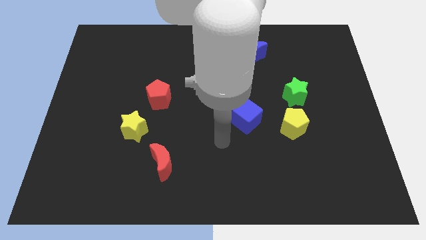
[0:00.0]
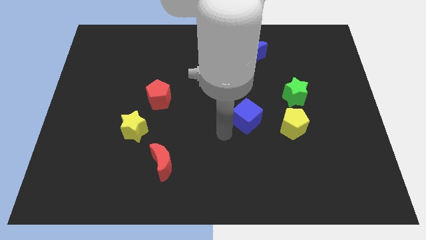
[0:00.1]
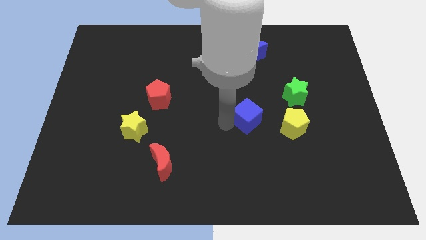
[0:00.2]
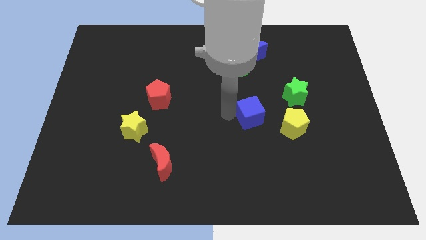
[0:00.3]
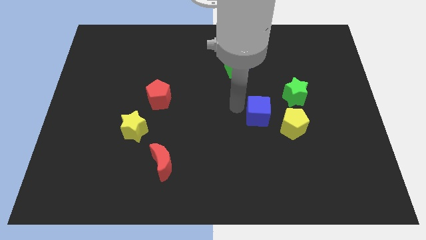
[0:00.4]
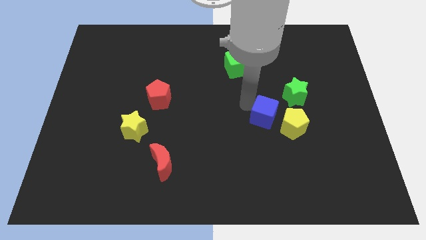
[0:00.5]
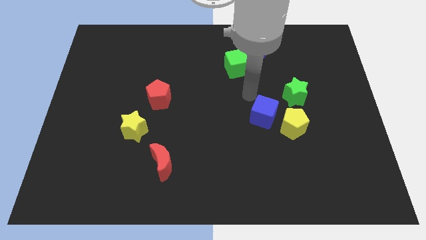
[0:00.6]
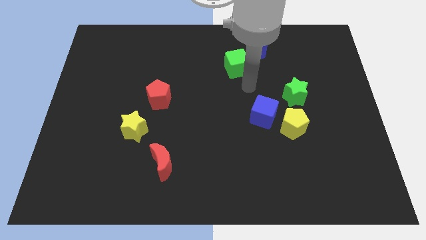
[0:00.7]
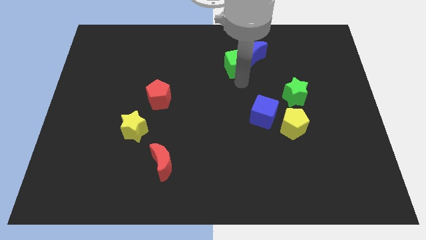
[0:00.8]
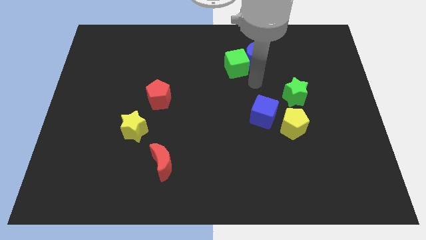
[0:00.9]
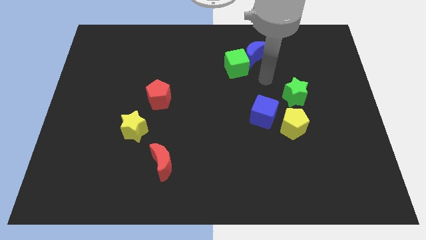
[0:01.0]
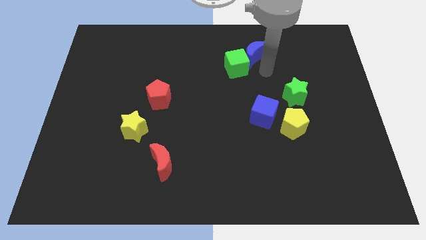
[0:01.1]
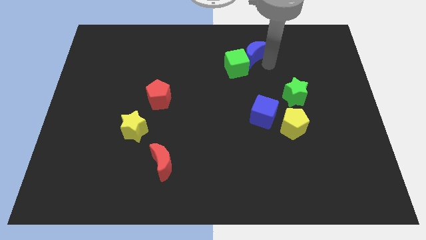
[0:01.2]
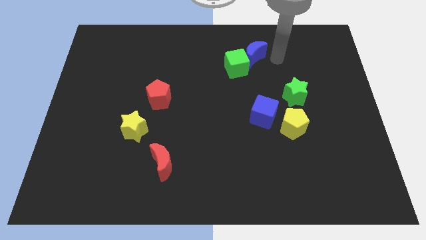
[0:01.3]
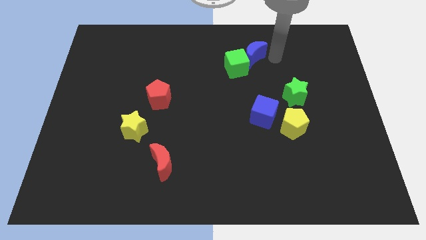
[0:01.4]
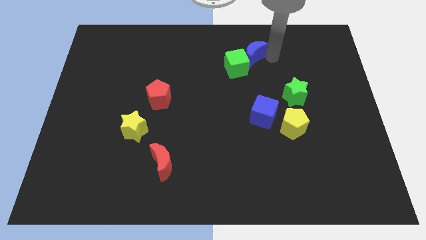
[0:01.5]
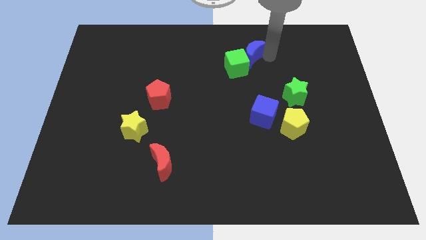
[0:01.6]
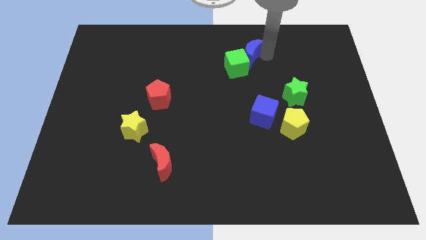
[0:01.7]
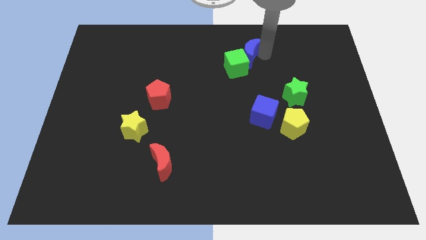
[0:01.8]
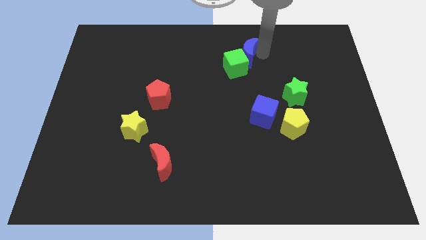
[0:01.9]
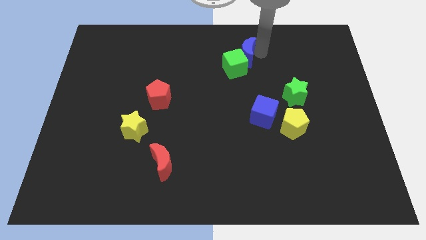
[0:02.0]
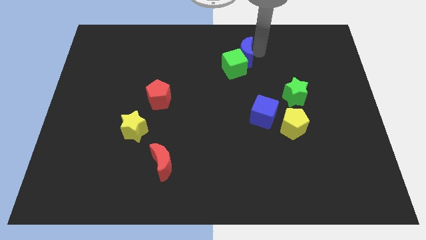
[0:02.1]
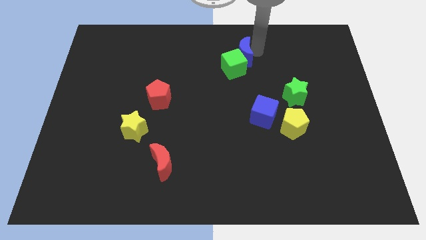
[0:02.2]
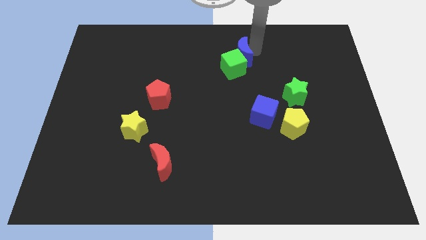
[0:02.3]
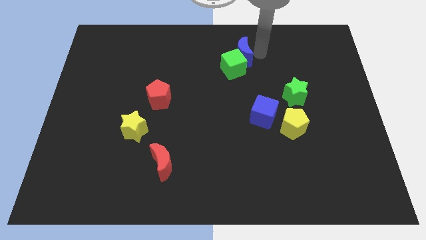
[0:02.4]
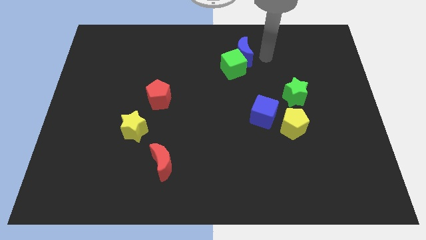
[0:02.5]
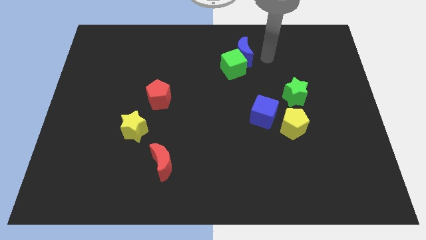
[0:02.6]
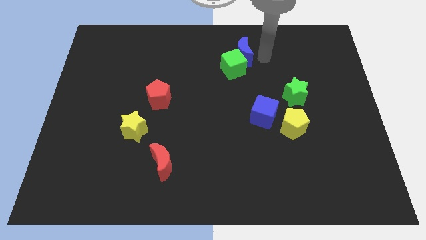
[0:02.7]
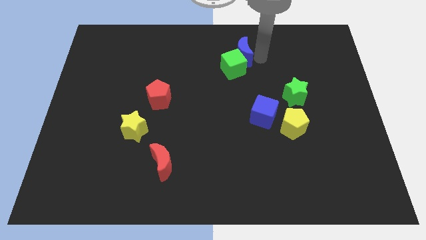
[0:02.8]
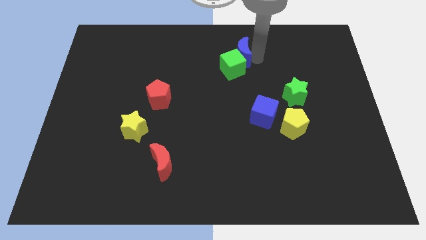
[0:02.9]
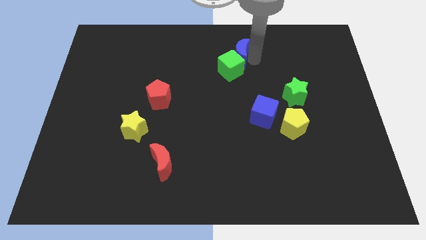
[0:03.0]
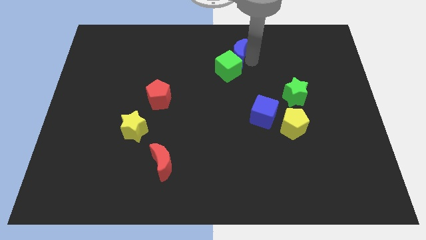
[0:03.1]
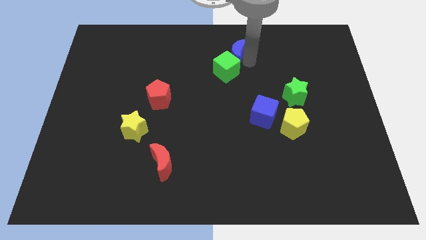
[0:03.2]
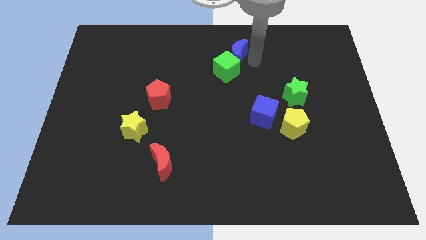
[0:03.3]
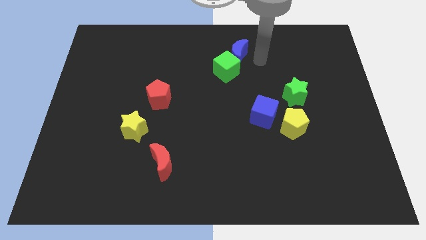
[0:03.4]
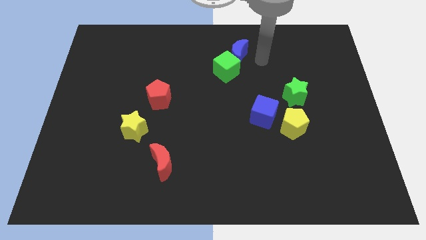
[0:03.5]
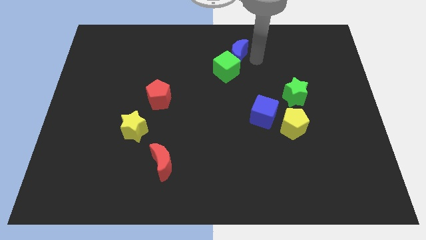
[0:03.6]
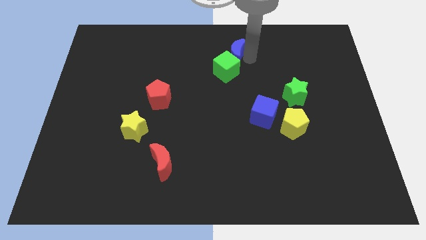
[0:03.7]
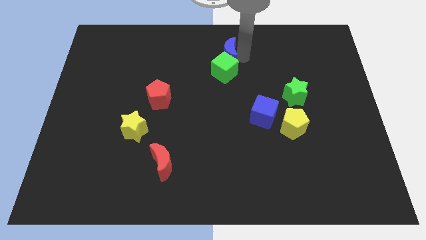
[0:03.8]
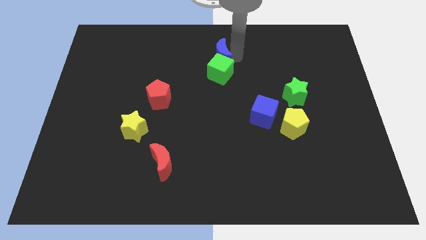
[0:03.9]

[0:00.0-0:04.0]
slide the blue moon somewhat left

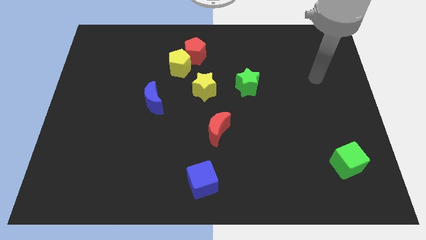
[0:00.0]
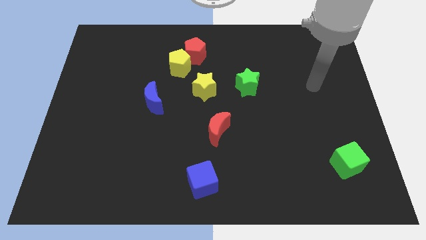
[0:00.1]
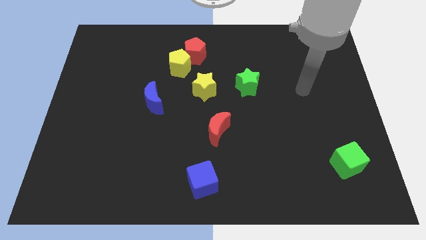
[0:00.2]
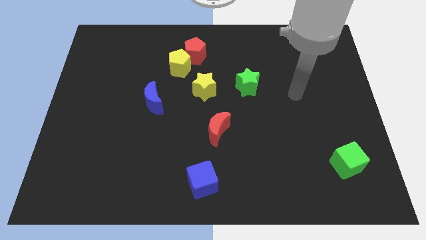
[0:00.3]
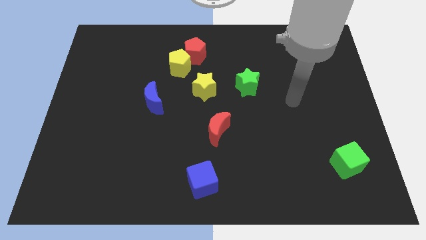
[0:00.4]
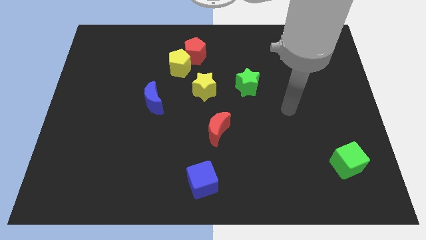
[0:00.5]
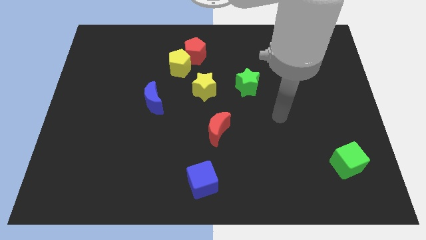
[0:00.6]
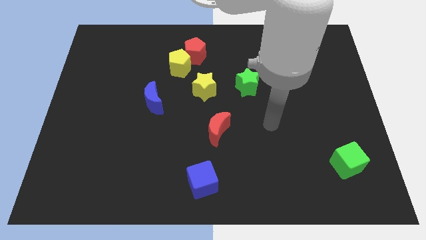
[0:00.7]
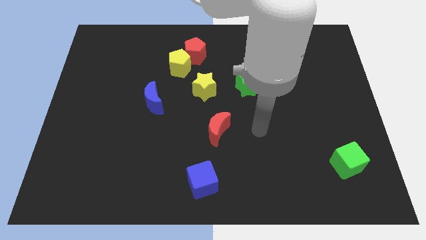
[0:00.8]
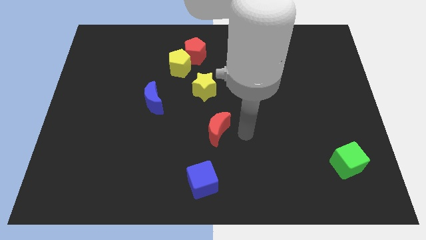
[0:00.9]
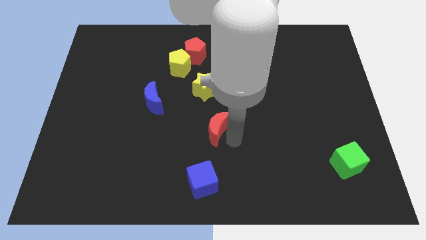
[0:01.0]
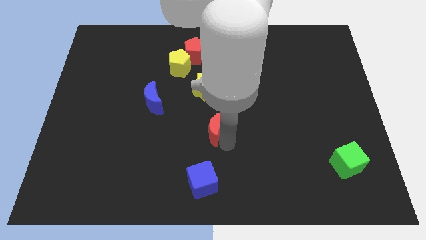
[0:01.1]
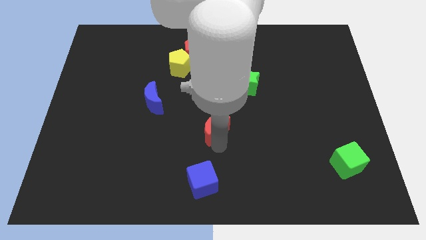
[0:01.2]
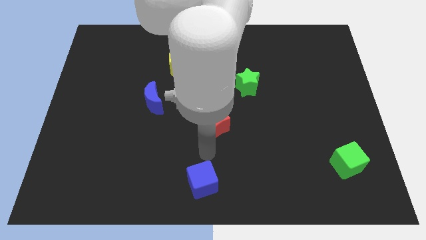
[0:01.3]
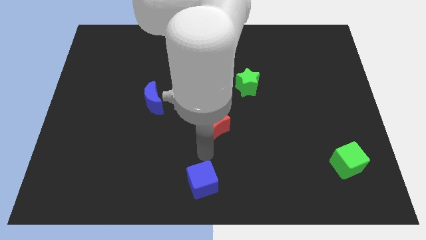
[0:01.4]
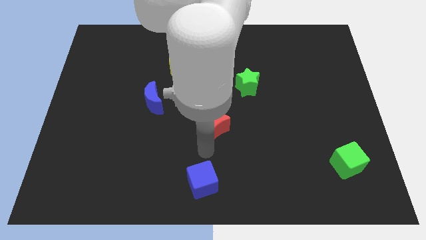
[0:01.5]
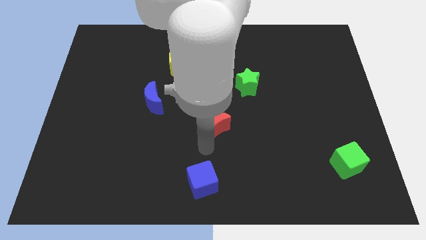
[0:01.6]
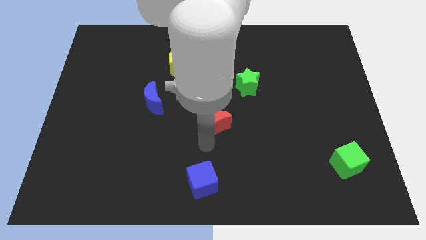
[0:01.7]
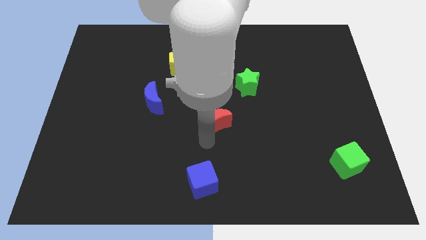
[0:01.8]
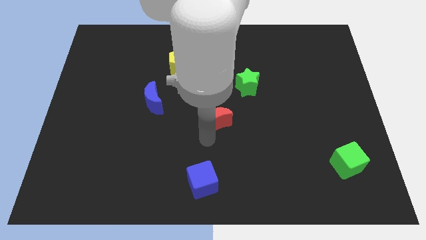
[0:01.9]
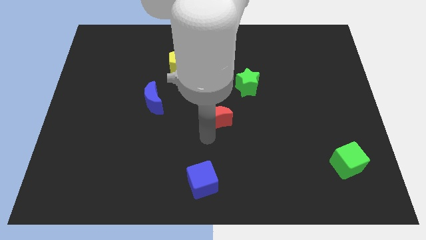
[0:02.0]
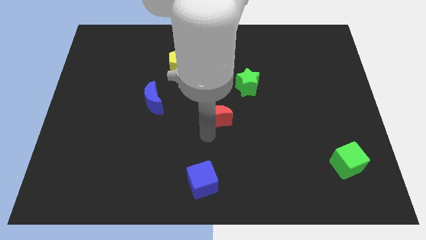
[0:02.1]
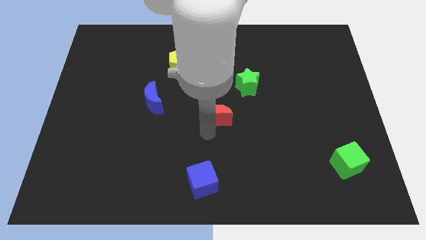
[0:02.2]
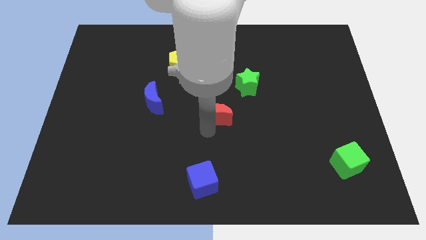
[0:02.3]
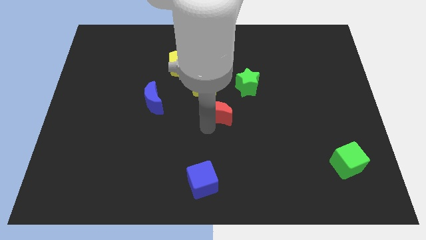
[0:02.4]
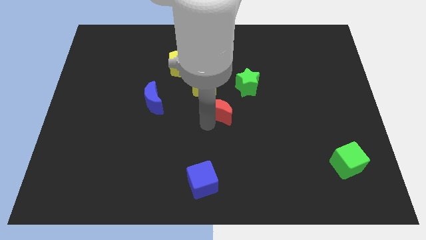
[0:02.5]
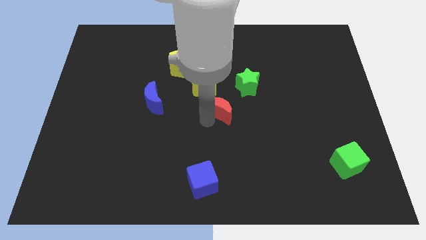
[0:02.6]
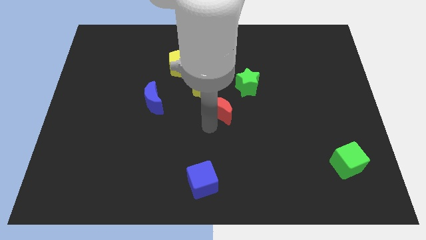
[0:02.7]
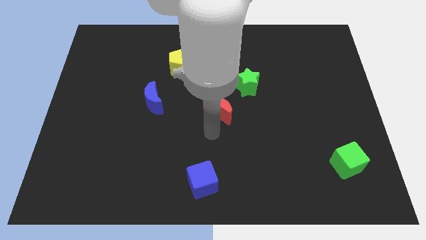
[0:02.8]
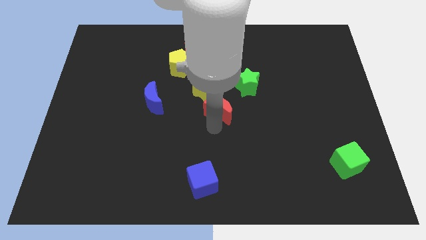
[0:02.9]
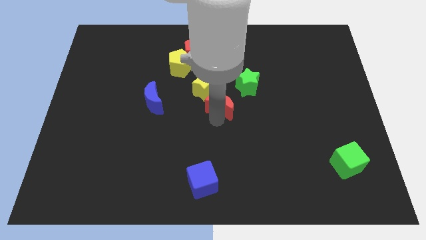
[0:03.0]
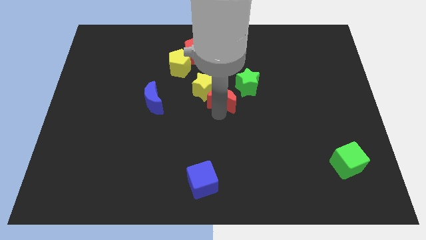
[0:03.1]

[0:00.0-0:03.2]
slightly slide the red moon up

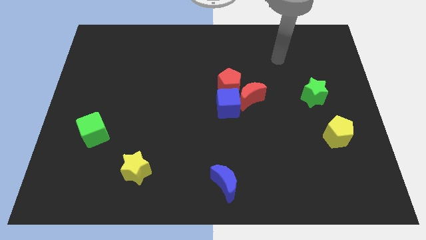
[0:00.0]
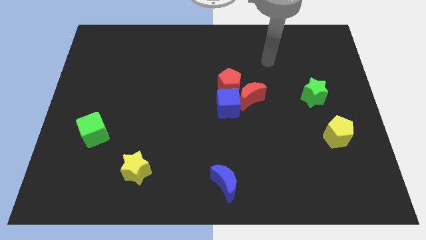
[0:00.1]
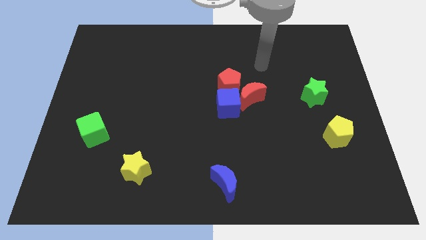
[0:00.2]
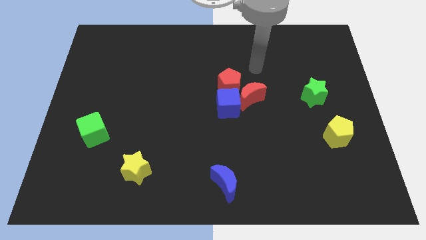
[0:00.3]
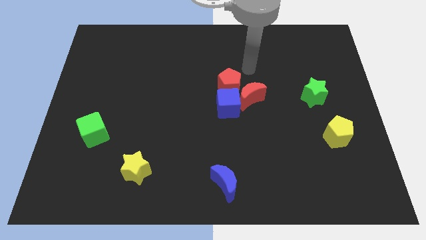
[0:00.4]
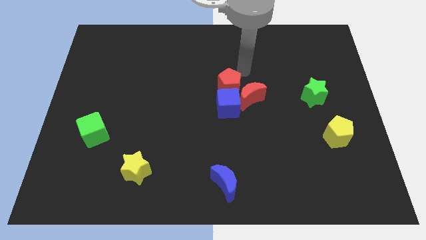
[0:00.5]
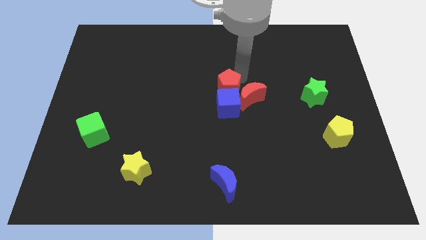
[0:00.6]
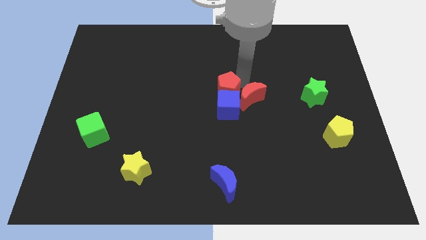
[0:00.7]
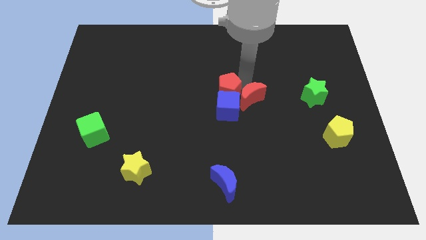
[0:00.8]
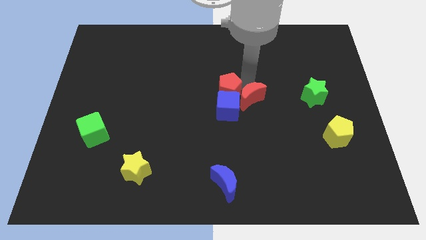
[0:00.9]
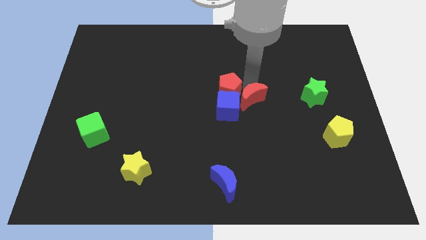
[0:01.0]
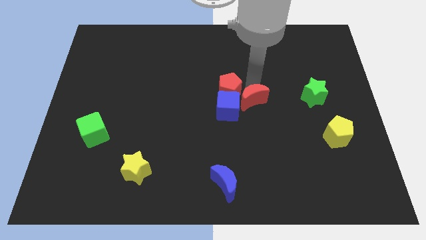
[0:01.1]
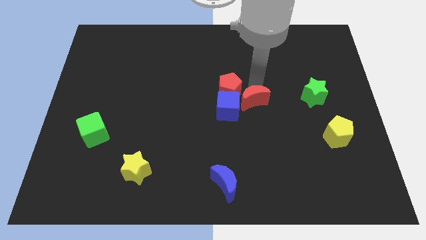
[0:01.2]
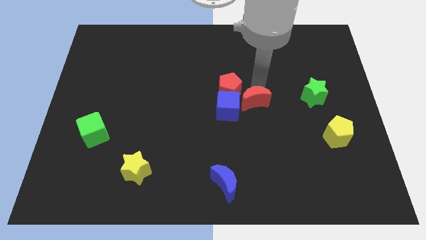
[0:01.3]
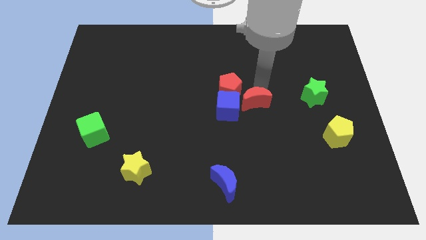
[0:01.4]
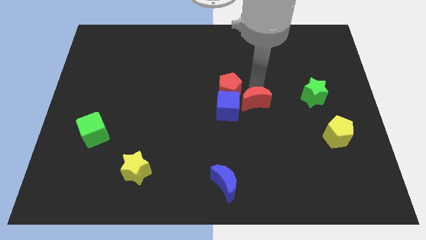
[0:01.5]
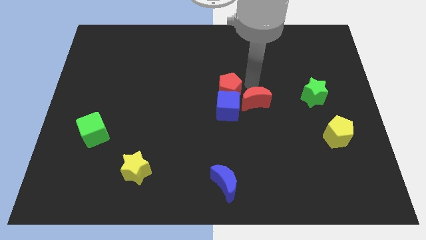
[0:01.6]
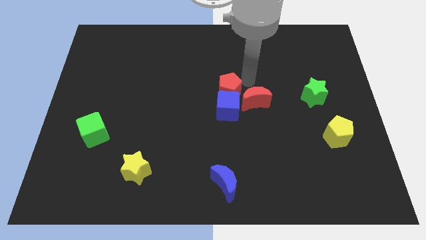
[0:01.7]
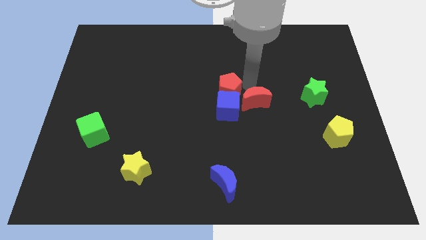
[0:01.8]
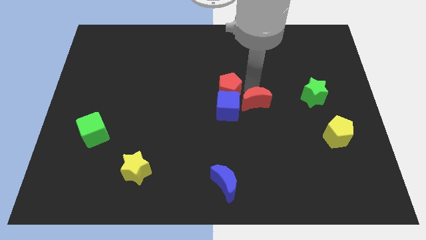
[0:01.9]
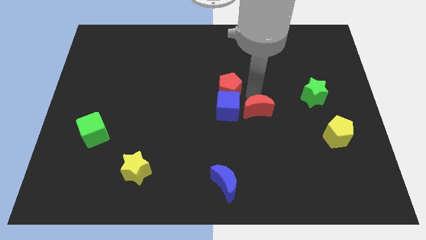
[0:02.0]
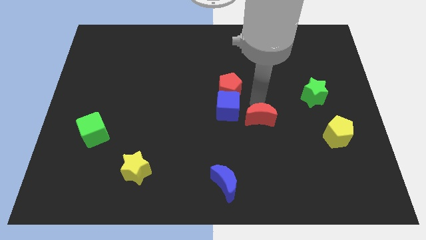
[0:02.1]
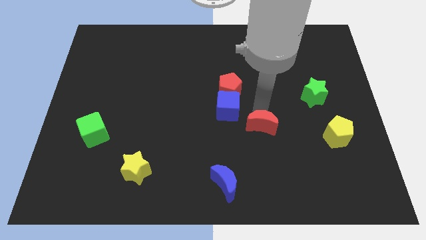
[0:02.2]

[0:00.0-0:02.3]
slide the red moon down a bit
